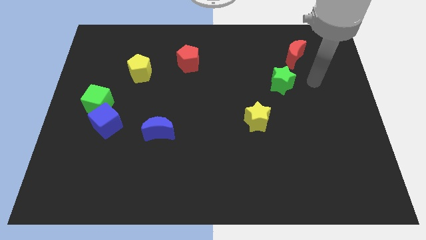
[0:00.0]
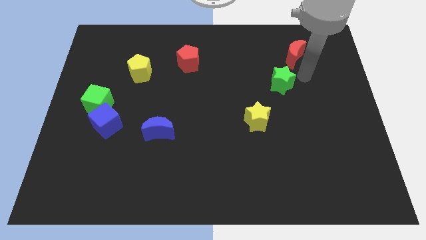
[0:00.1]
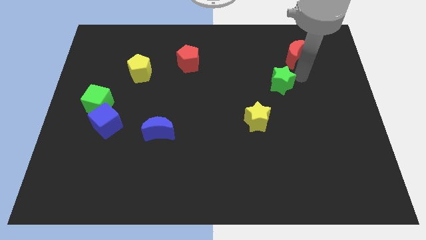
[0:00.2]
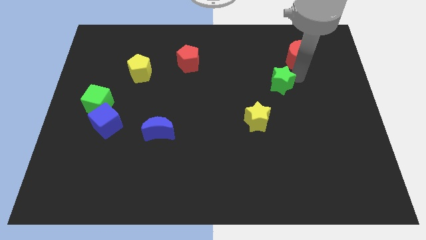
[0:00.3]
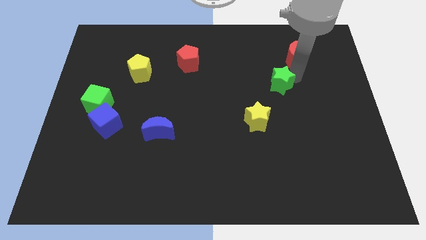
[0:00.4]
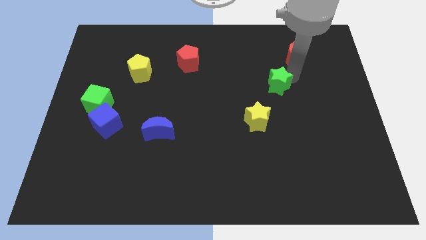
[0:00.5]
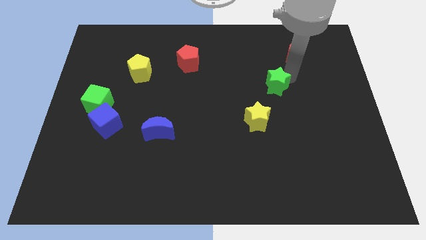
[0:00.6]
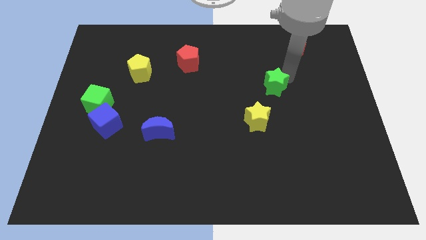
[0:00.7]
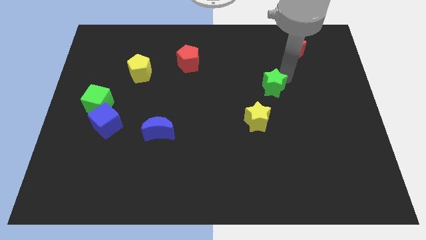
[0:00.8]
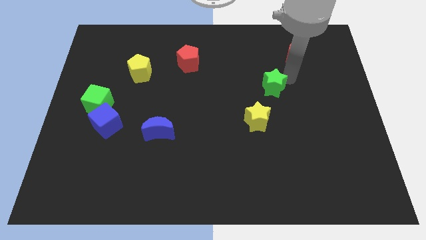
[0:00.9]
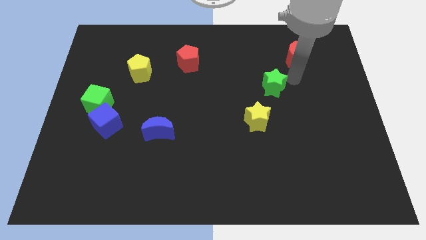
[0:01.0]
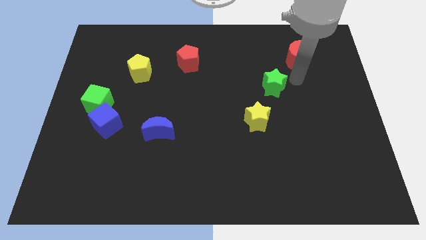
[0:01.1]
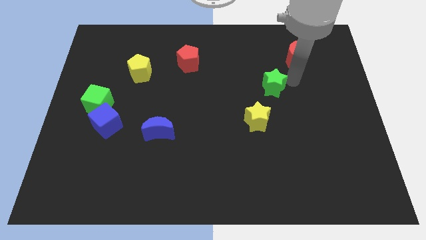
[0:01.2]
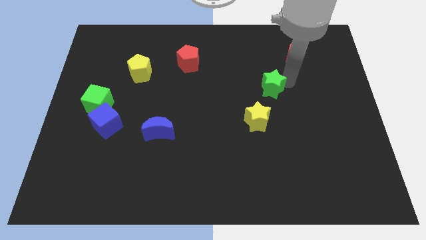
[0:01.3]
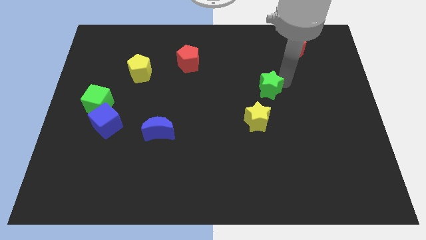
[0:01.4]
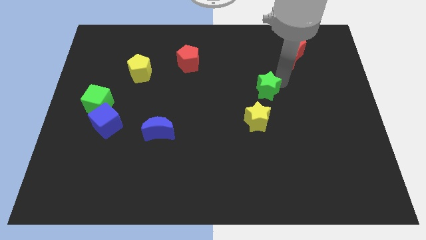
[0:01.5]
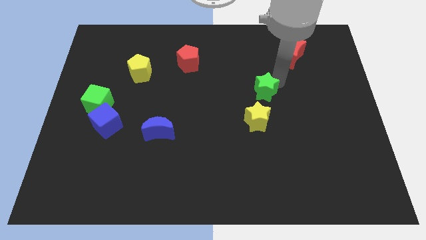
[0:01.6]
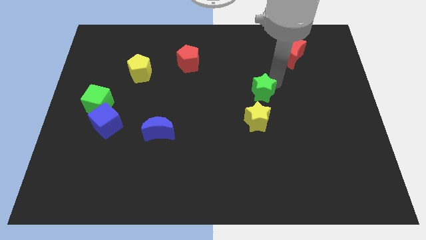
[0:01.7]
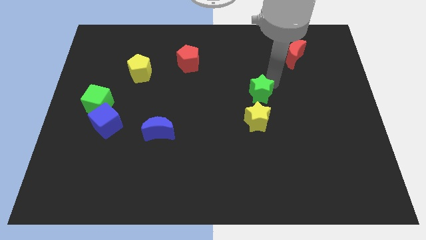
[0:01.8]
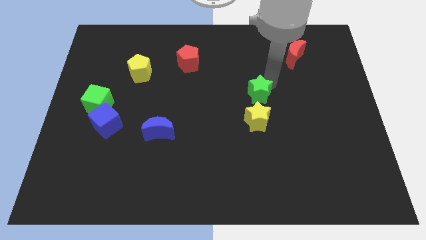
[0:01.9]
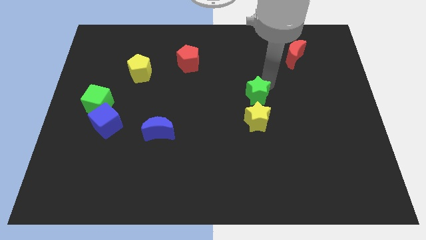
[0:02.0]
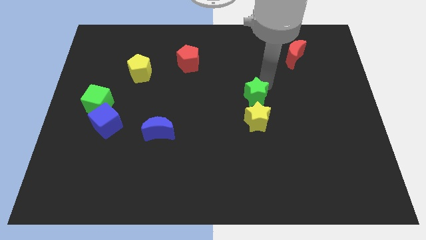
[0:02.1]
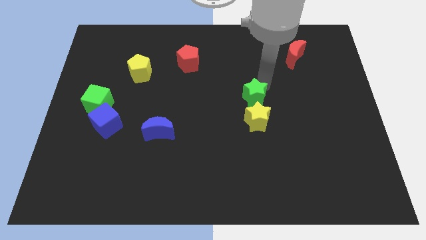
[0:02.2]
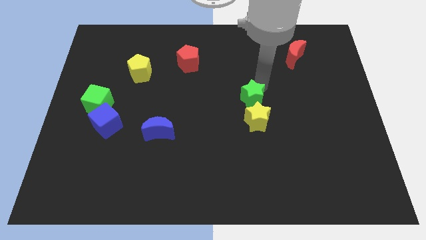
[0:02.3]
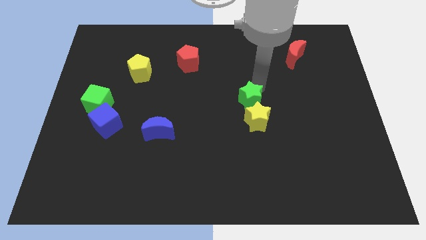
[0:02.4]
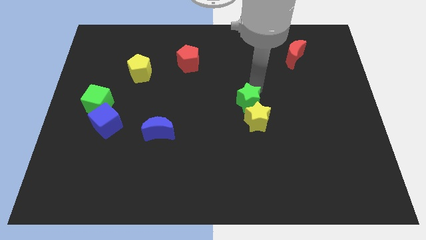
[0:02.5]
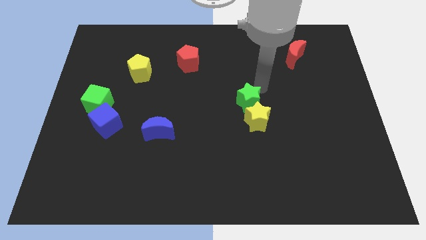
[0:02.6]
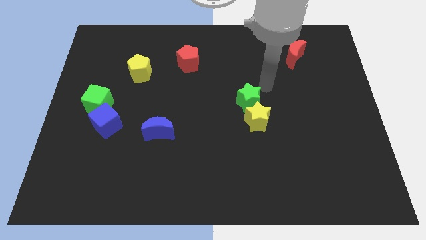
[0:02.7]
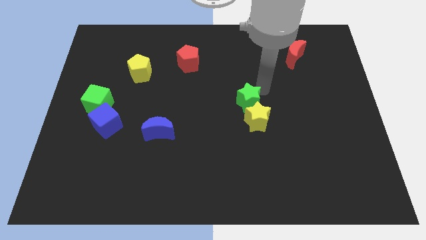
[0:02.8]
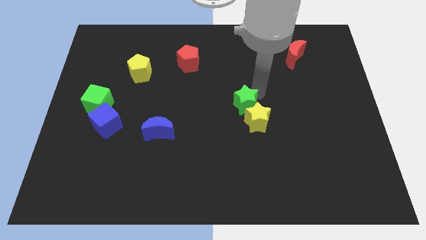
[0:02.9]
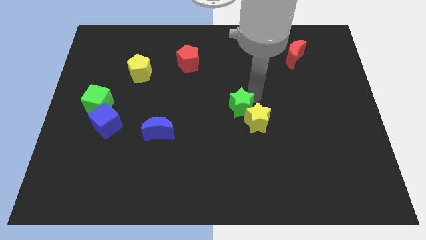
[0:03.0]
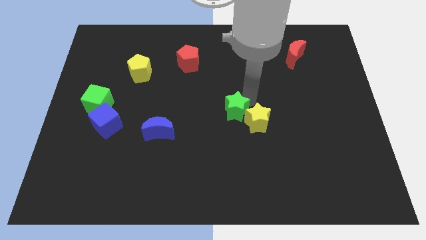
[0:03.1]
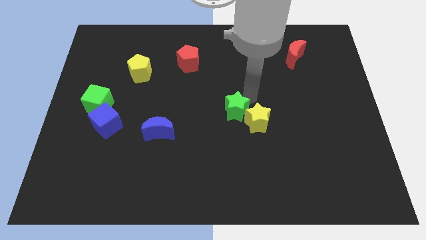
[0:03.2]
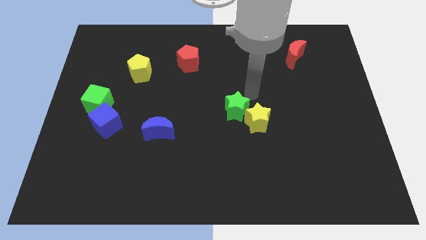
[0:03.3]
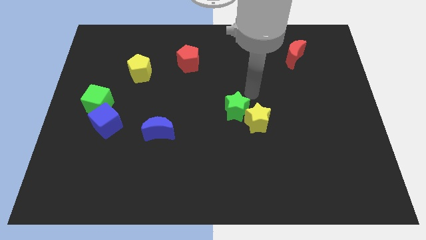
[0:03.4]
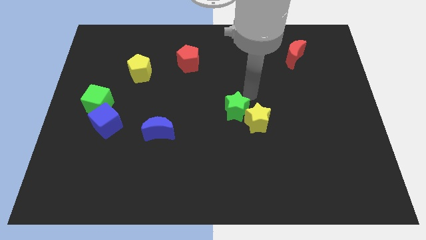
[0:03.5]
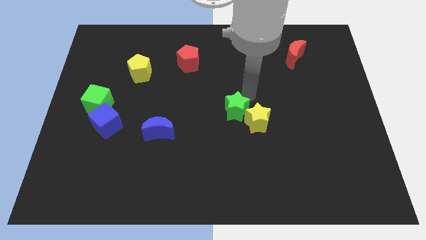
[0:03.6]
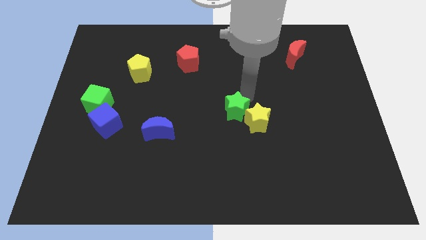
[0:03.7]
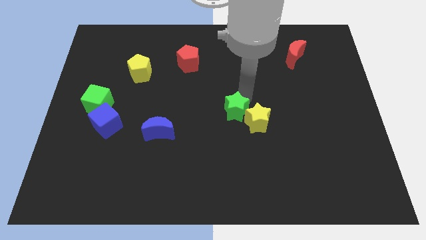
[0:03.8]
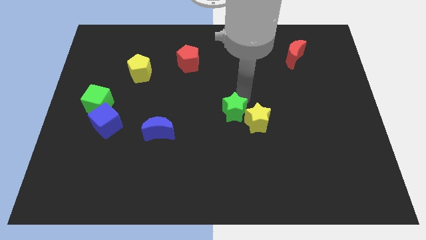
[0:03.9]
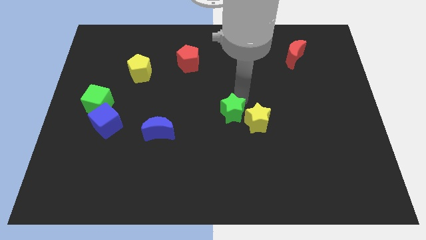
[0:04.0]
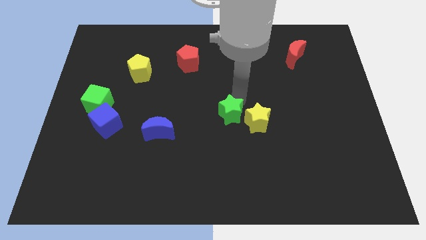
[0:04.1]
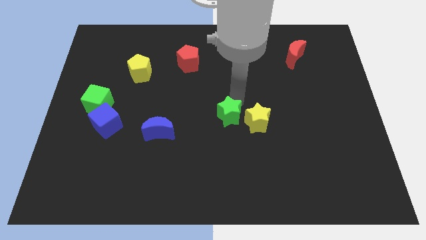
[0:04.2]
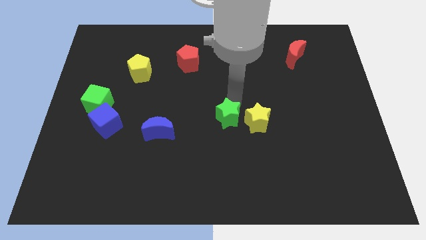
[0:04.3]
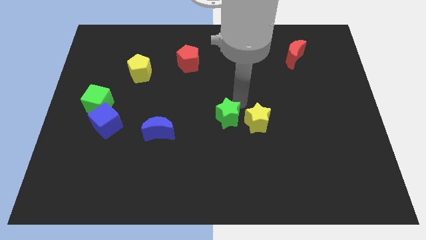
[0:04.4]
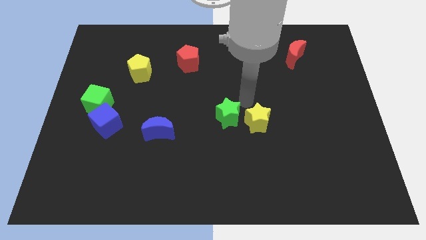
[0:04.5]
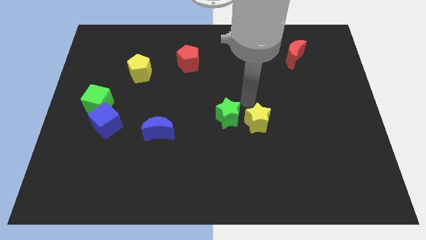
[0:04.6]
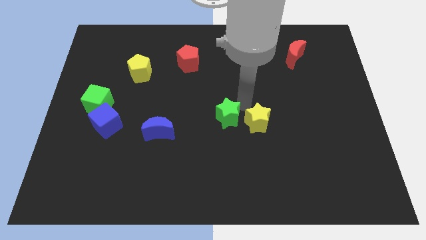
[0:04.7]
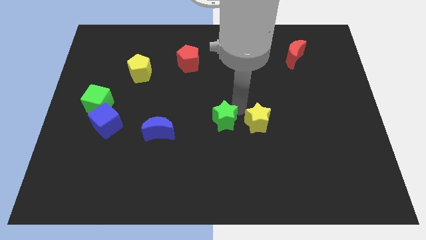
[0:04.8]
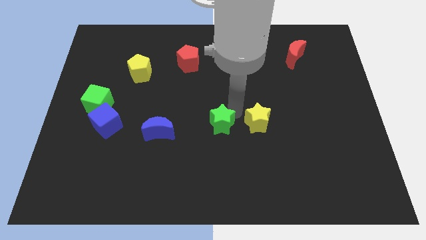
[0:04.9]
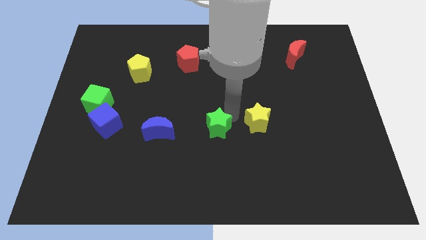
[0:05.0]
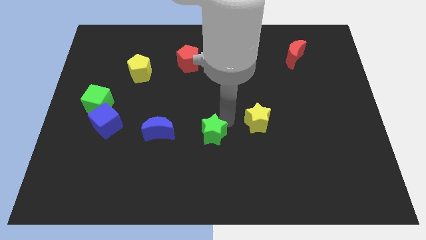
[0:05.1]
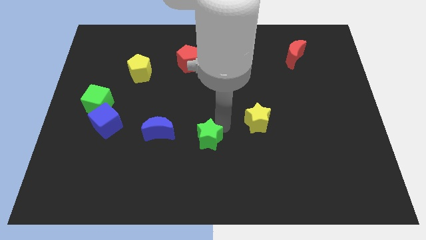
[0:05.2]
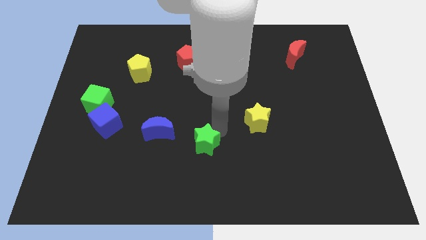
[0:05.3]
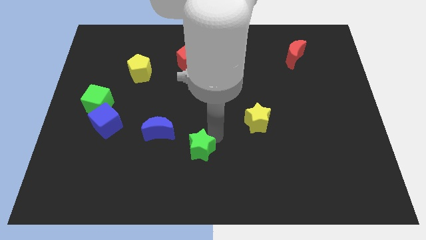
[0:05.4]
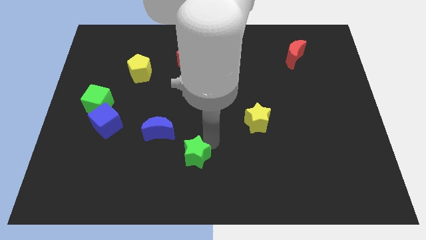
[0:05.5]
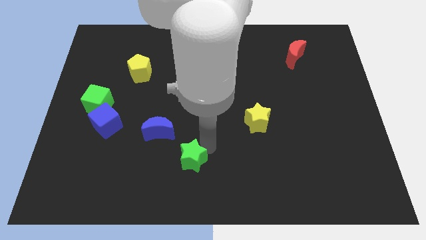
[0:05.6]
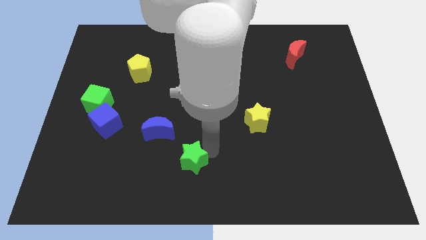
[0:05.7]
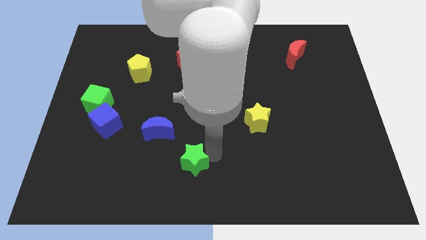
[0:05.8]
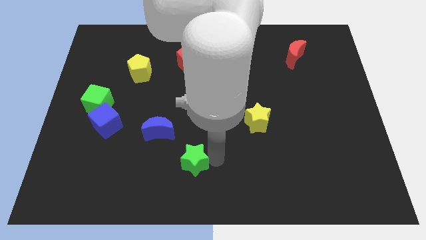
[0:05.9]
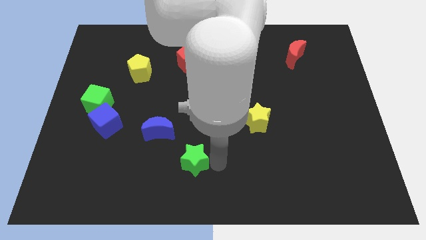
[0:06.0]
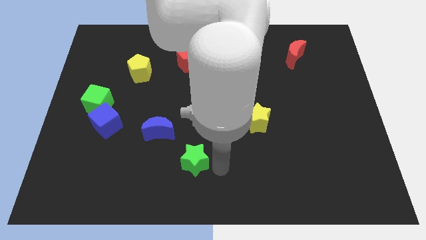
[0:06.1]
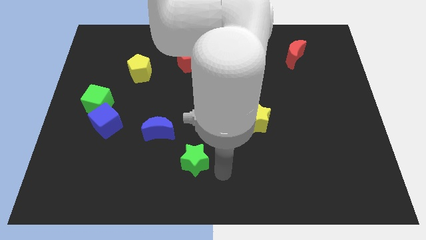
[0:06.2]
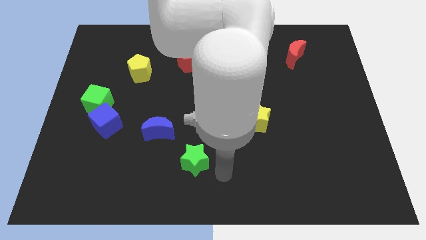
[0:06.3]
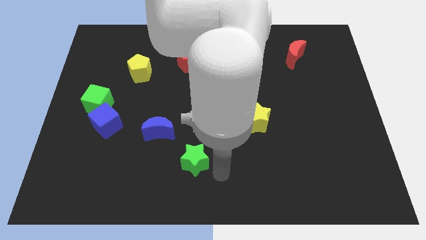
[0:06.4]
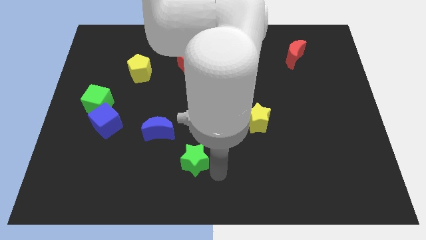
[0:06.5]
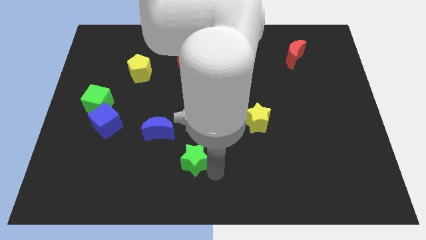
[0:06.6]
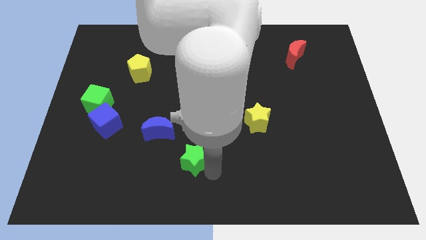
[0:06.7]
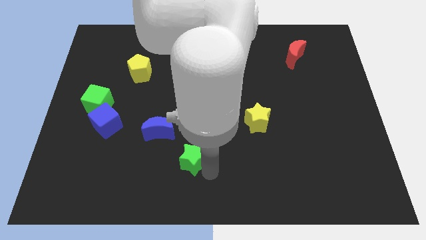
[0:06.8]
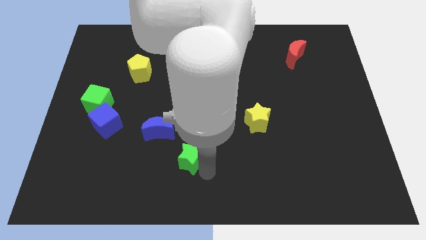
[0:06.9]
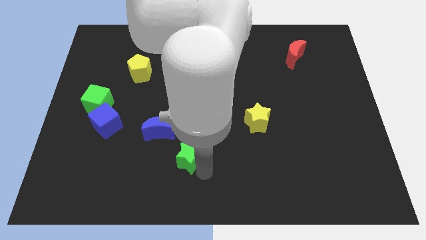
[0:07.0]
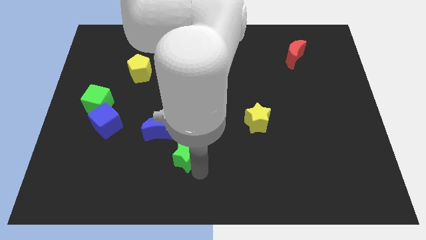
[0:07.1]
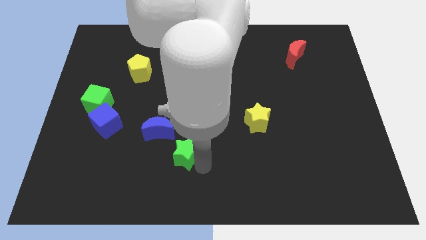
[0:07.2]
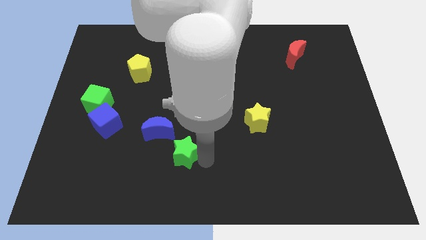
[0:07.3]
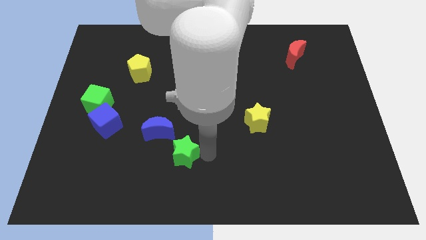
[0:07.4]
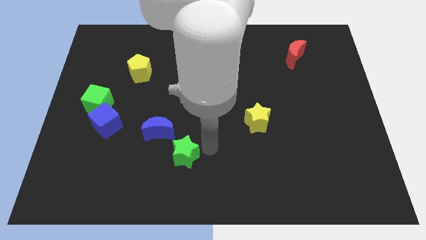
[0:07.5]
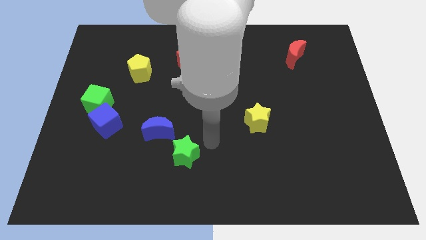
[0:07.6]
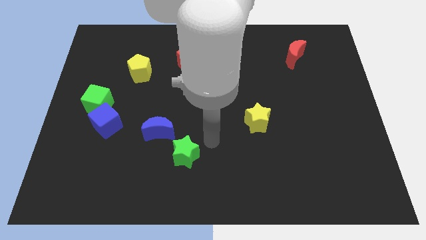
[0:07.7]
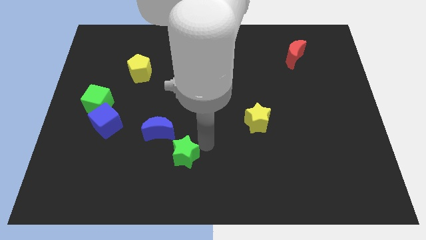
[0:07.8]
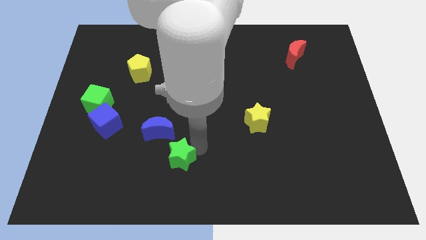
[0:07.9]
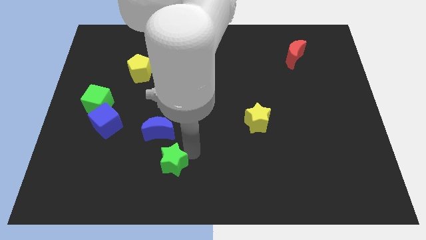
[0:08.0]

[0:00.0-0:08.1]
push the green star to the bottom side of the blue moon

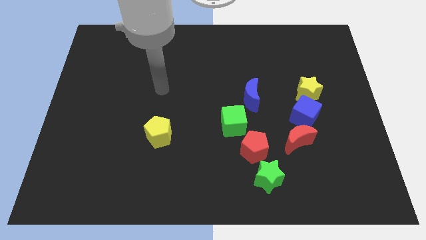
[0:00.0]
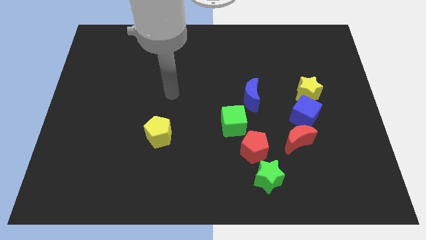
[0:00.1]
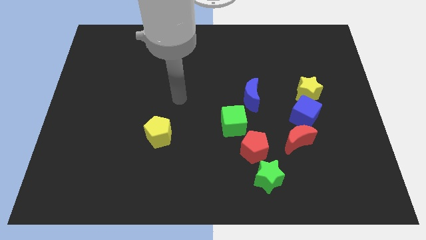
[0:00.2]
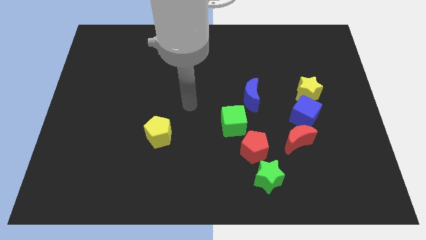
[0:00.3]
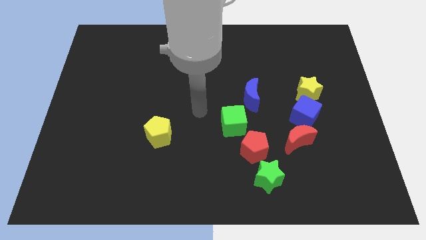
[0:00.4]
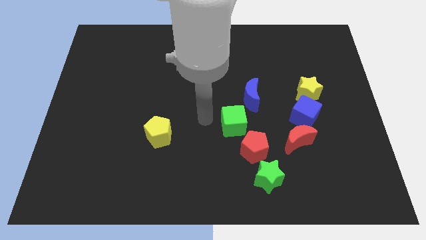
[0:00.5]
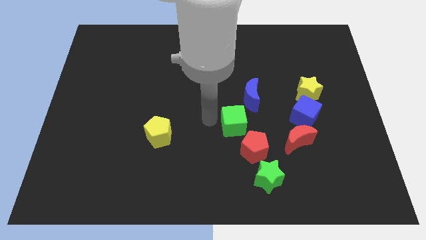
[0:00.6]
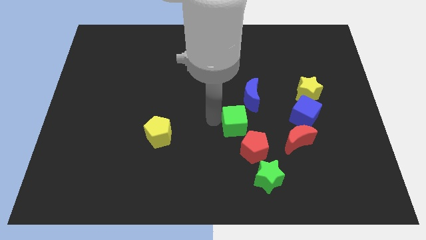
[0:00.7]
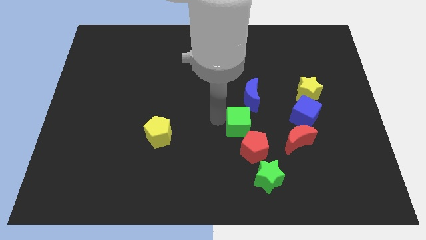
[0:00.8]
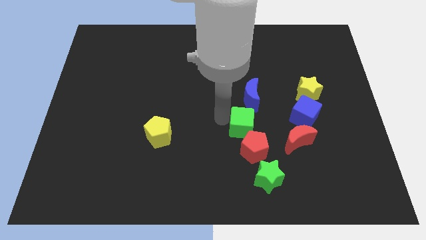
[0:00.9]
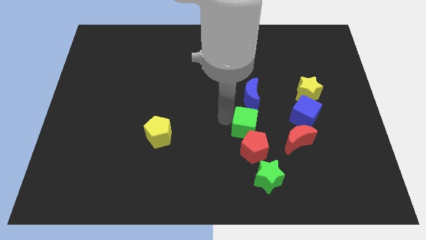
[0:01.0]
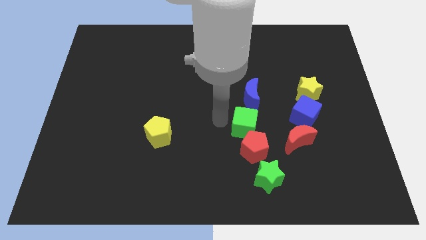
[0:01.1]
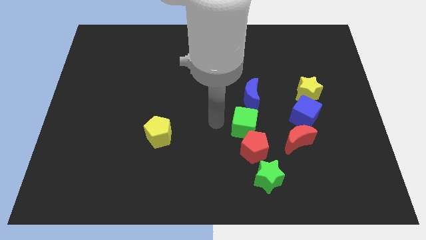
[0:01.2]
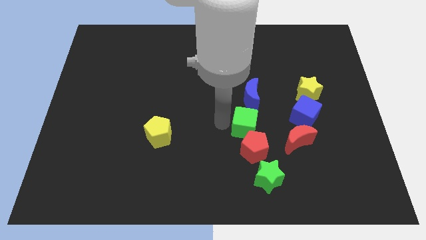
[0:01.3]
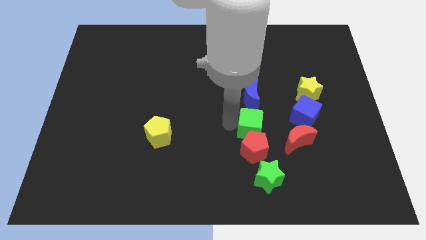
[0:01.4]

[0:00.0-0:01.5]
put the green cube to the top right side of the red pentagon
